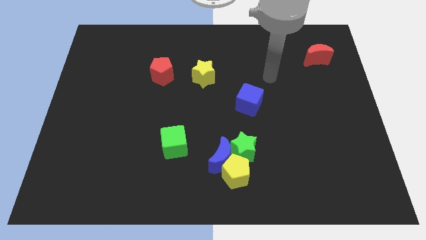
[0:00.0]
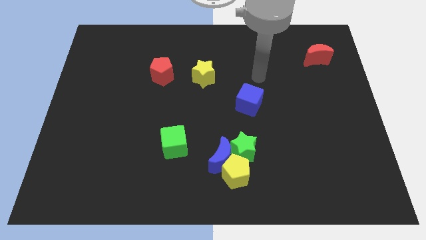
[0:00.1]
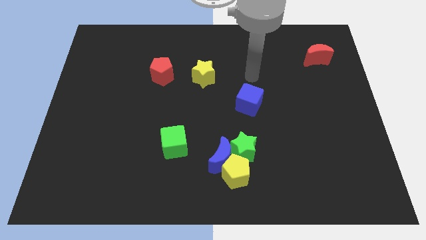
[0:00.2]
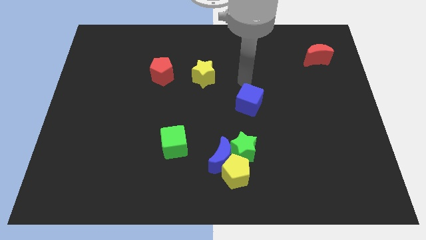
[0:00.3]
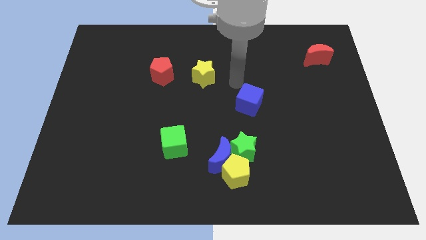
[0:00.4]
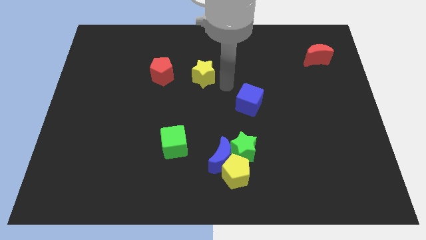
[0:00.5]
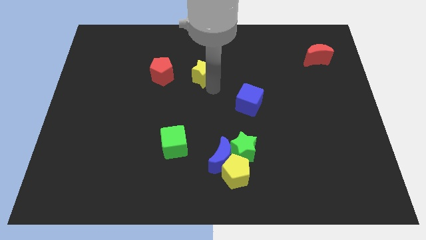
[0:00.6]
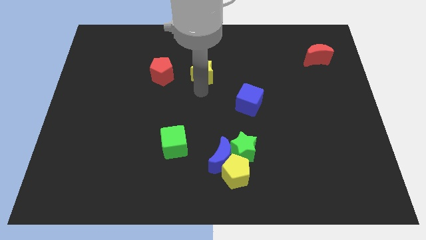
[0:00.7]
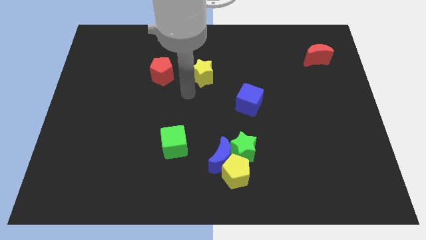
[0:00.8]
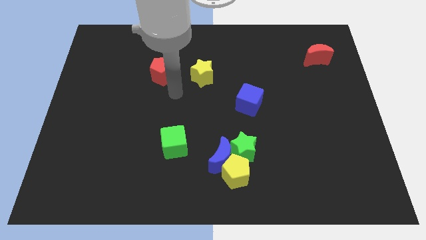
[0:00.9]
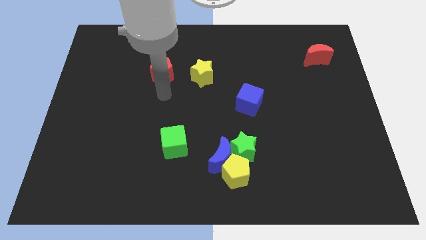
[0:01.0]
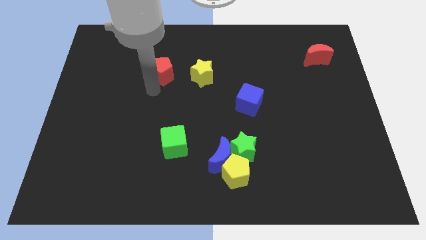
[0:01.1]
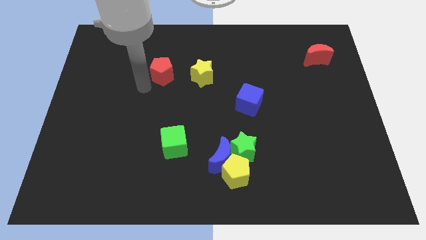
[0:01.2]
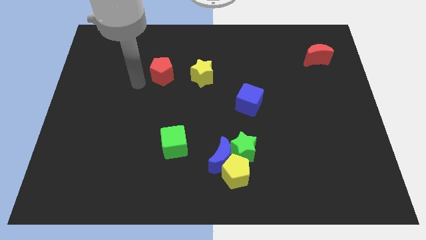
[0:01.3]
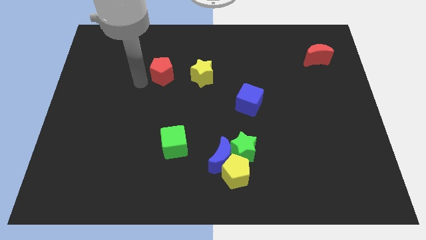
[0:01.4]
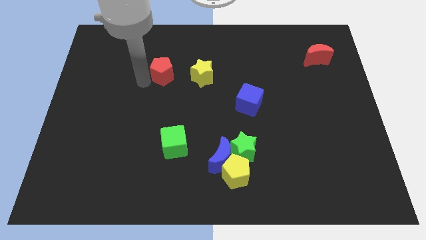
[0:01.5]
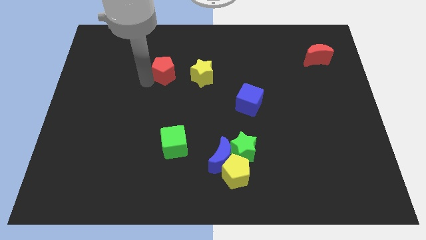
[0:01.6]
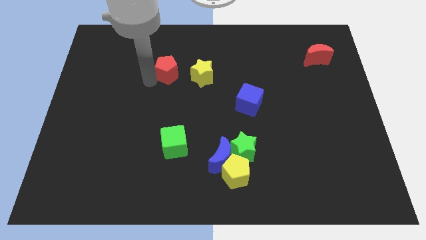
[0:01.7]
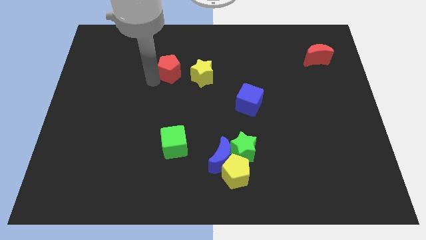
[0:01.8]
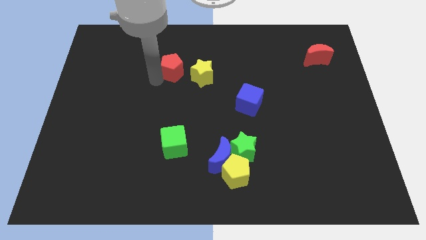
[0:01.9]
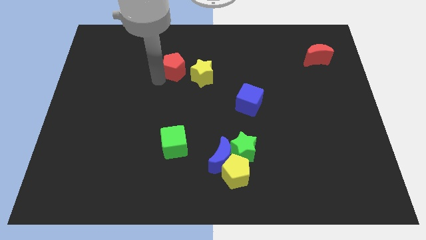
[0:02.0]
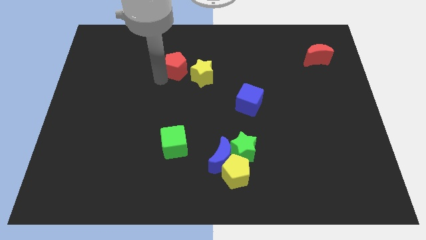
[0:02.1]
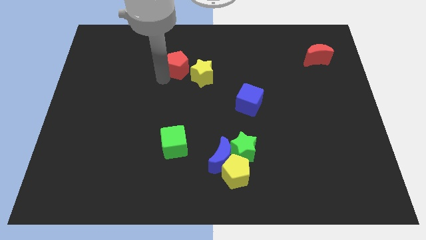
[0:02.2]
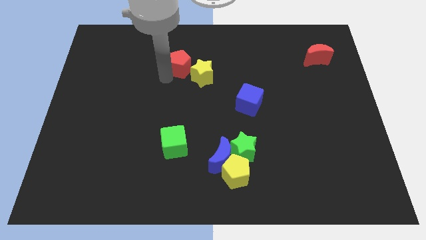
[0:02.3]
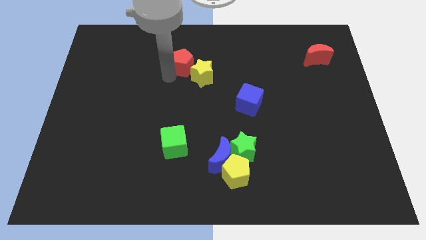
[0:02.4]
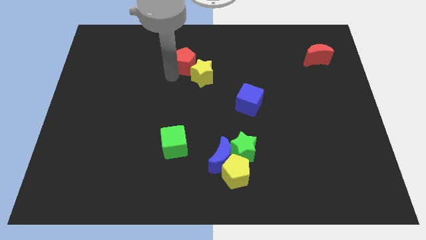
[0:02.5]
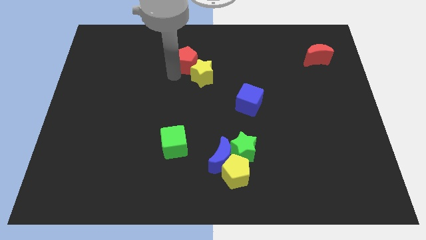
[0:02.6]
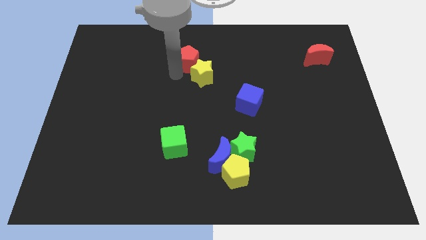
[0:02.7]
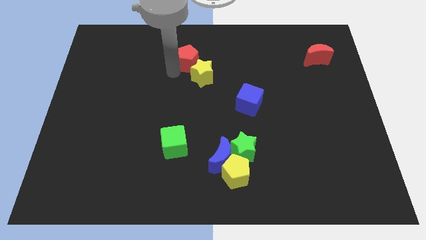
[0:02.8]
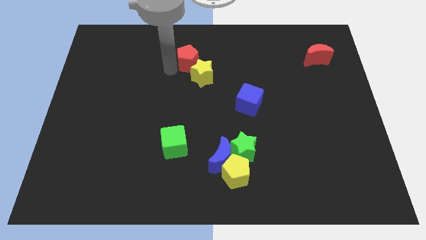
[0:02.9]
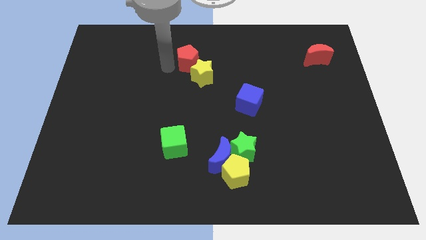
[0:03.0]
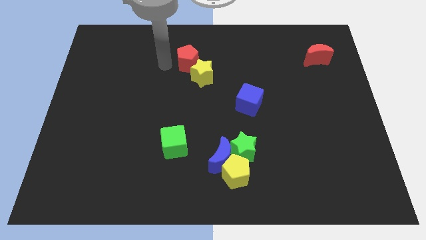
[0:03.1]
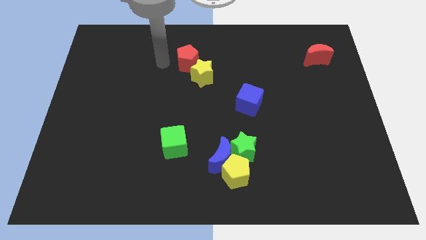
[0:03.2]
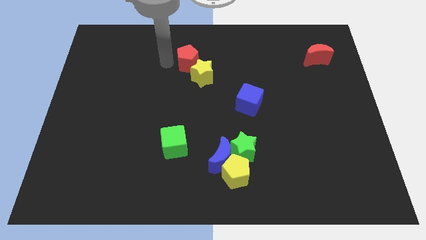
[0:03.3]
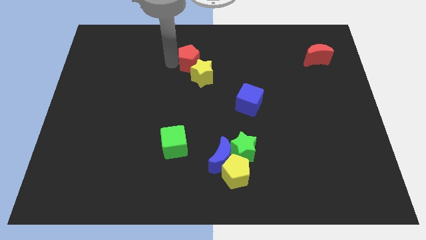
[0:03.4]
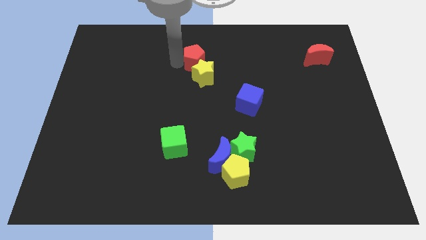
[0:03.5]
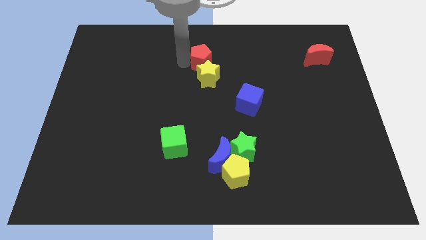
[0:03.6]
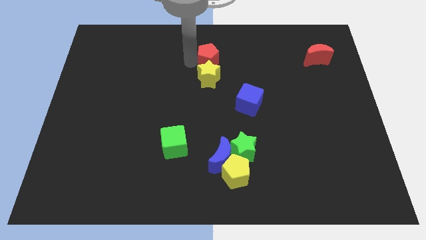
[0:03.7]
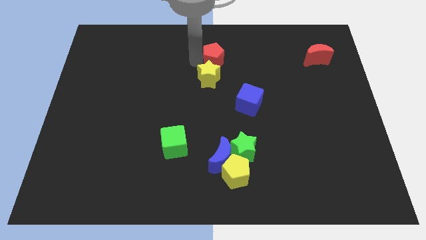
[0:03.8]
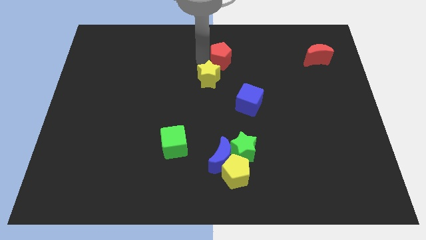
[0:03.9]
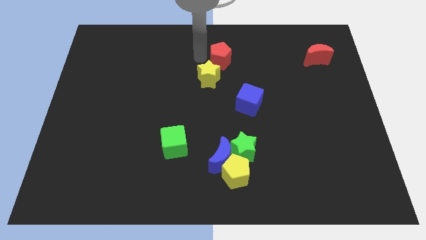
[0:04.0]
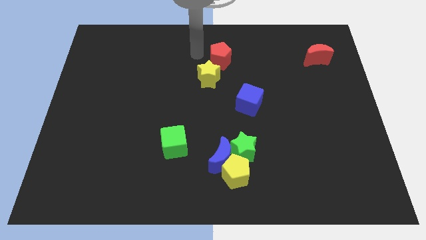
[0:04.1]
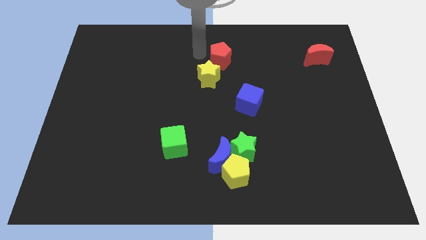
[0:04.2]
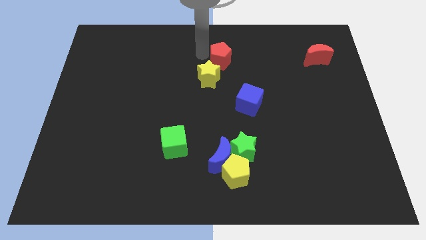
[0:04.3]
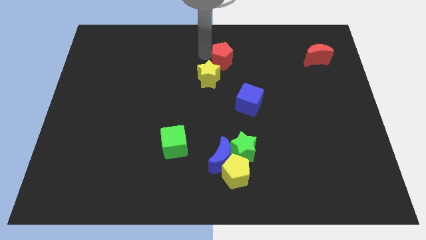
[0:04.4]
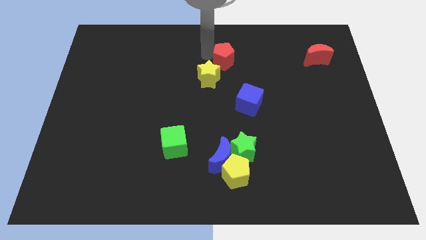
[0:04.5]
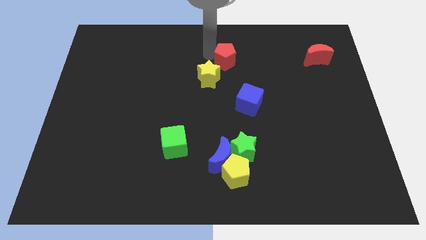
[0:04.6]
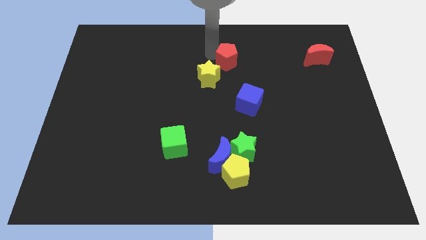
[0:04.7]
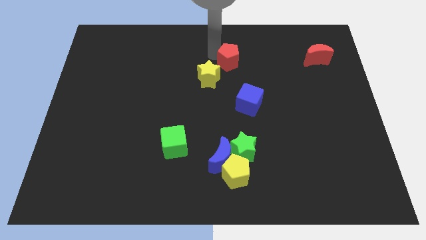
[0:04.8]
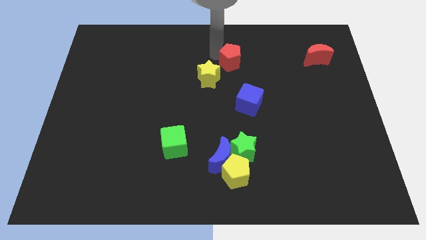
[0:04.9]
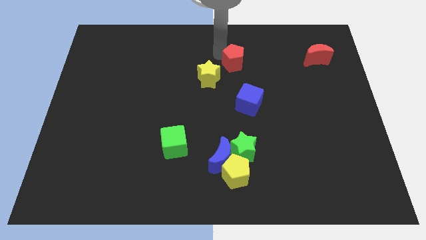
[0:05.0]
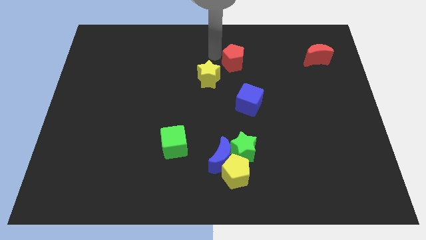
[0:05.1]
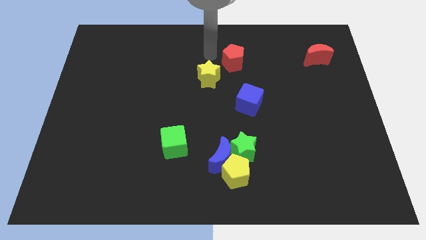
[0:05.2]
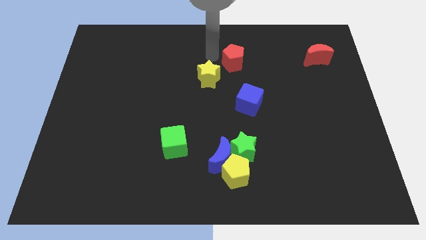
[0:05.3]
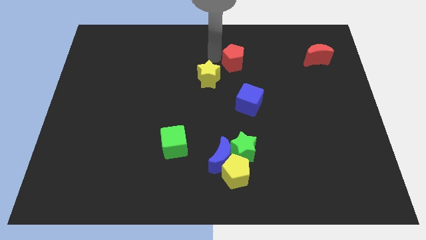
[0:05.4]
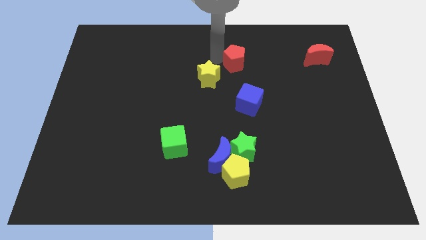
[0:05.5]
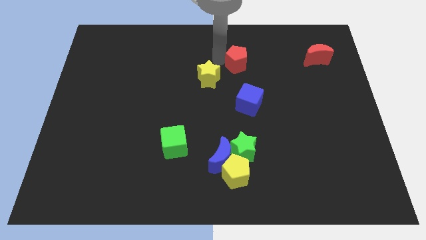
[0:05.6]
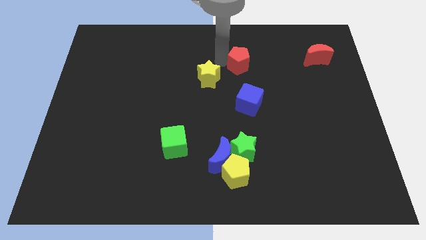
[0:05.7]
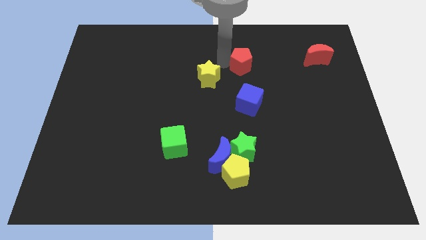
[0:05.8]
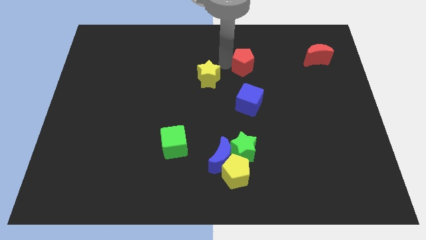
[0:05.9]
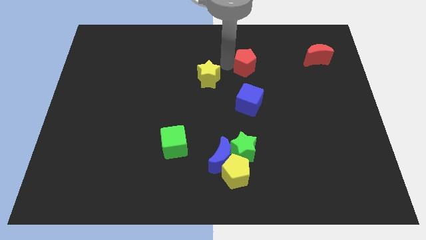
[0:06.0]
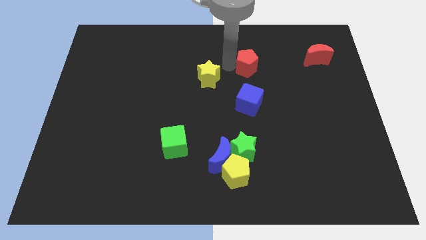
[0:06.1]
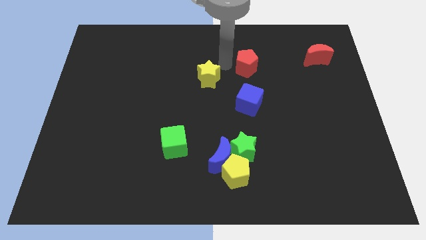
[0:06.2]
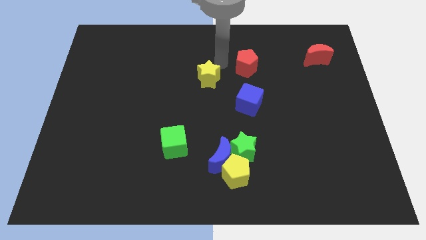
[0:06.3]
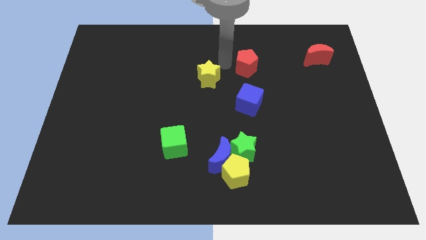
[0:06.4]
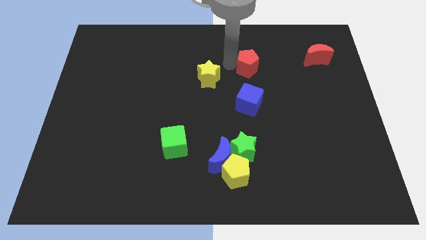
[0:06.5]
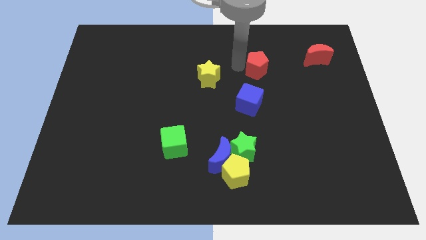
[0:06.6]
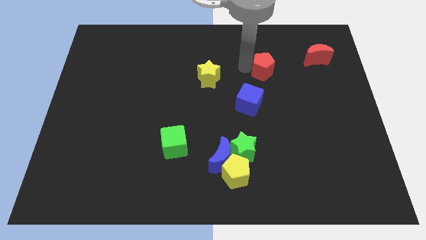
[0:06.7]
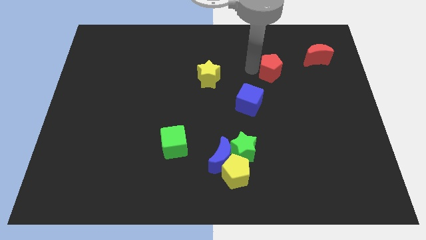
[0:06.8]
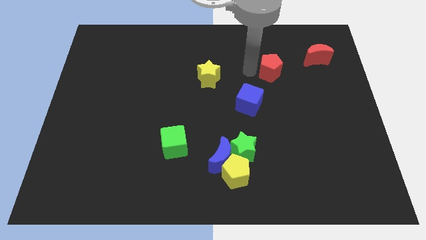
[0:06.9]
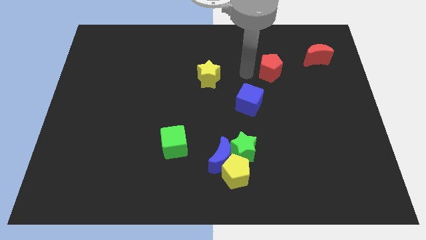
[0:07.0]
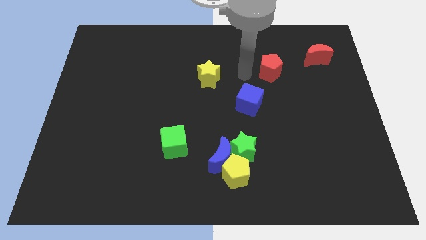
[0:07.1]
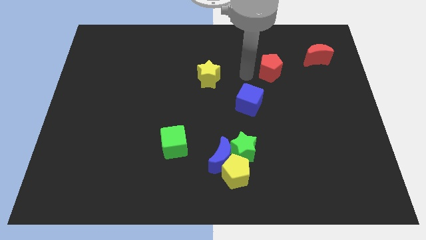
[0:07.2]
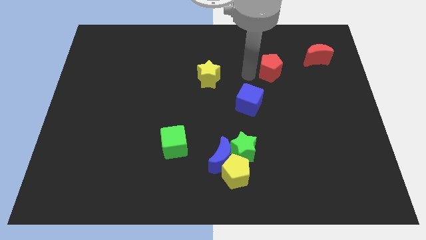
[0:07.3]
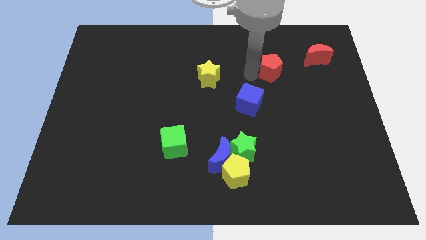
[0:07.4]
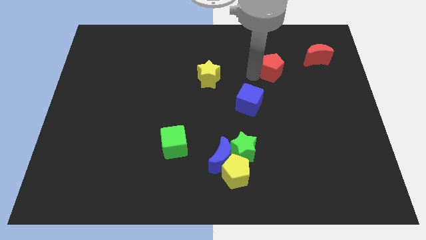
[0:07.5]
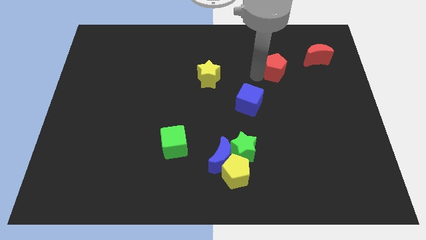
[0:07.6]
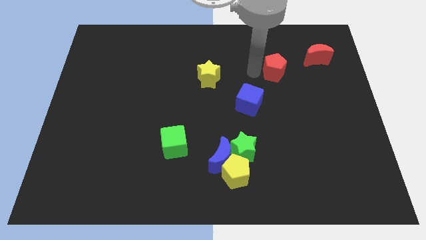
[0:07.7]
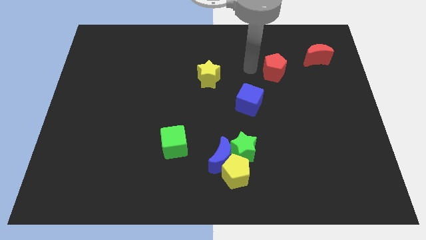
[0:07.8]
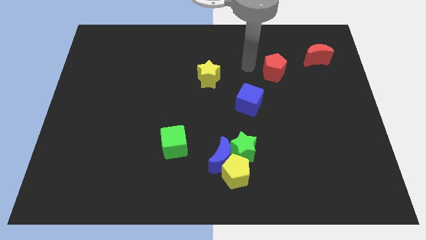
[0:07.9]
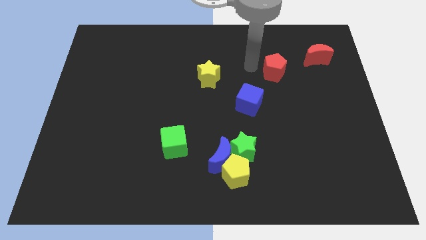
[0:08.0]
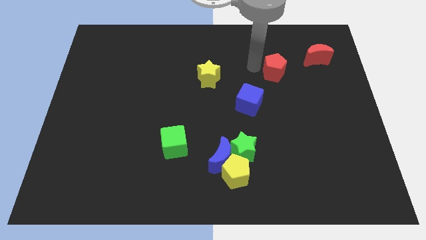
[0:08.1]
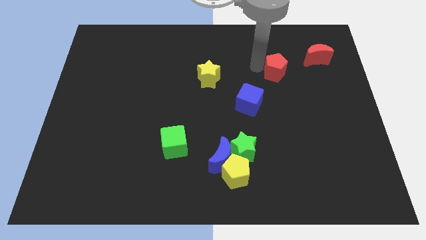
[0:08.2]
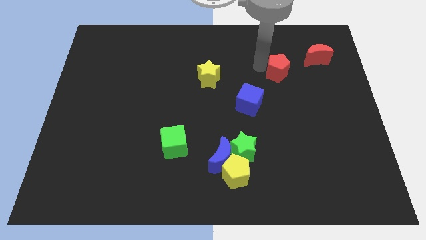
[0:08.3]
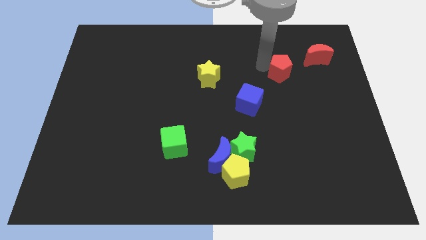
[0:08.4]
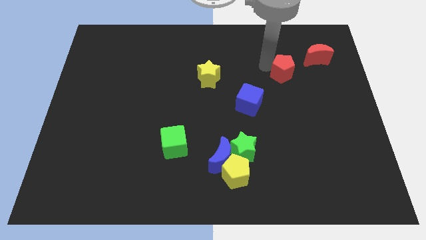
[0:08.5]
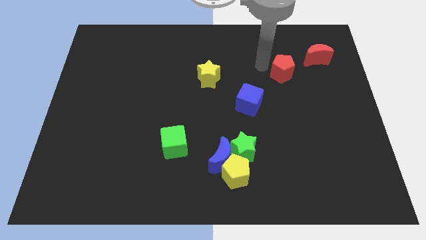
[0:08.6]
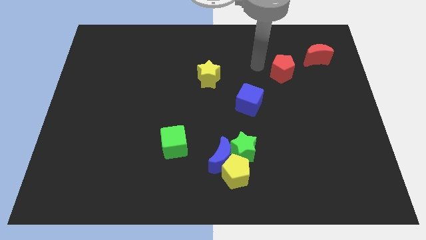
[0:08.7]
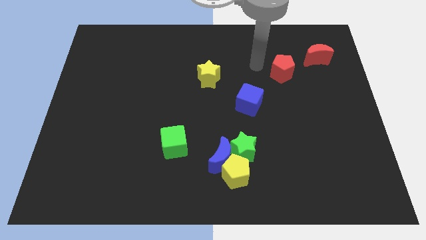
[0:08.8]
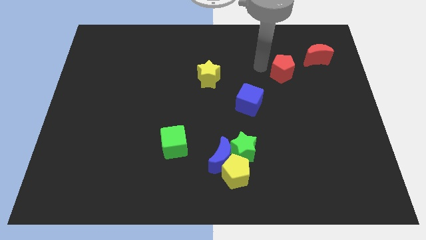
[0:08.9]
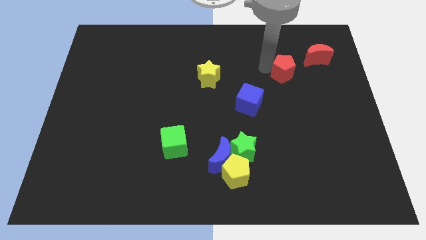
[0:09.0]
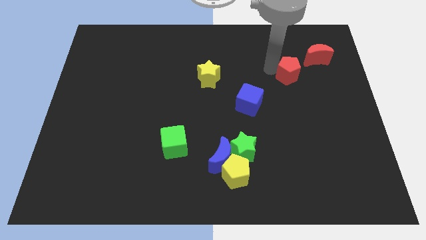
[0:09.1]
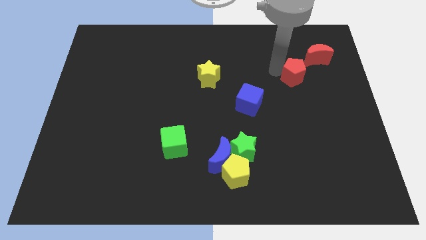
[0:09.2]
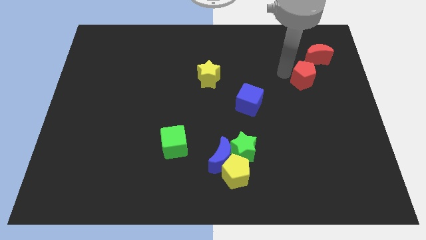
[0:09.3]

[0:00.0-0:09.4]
put the red pentagon to the bottom of the red moon
